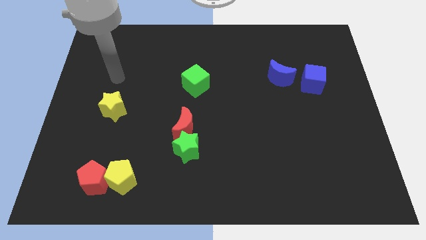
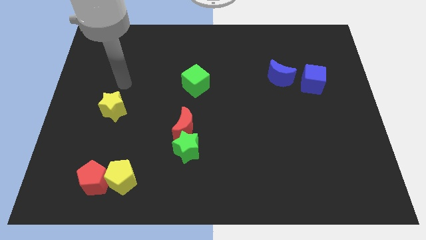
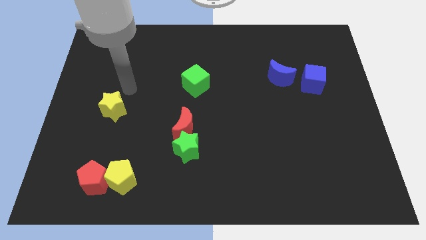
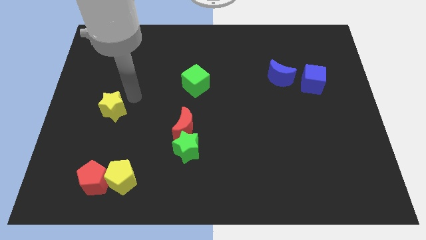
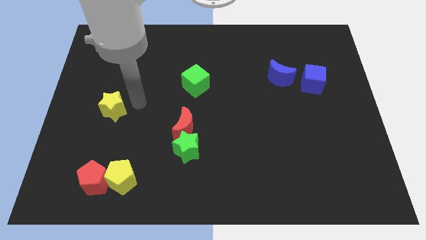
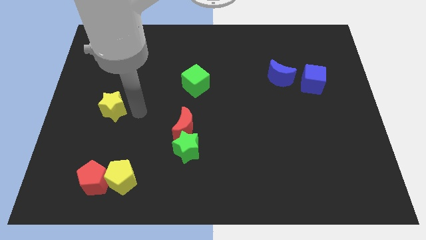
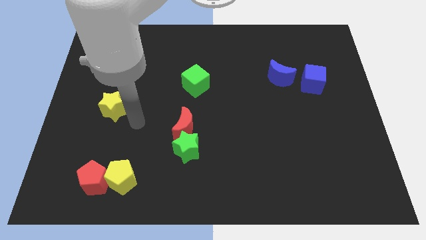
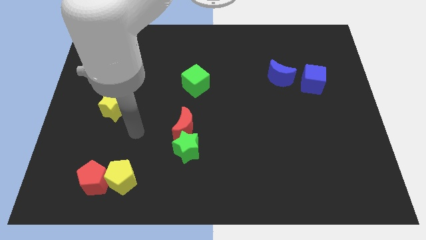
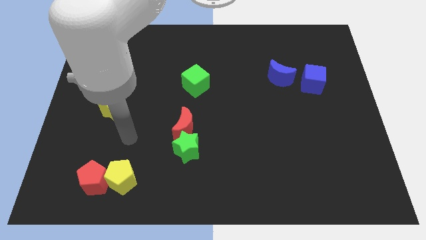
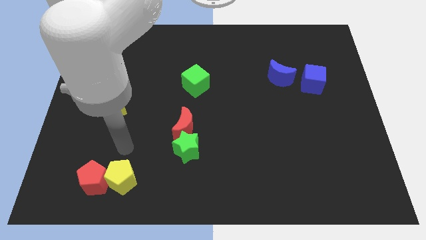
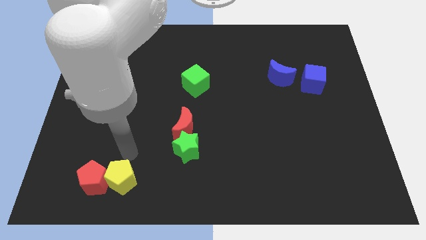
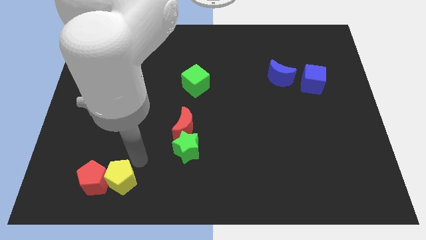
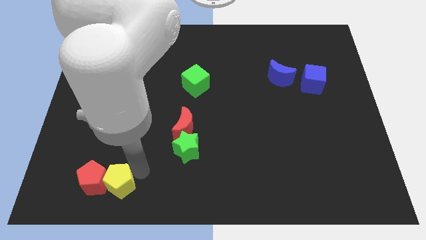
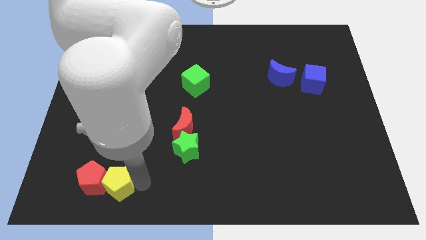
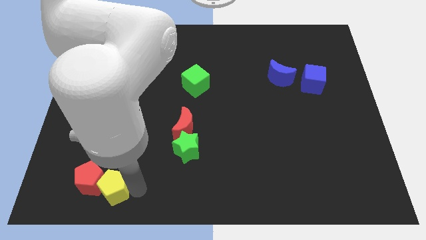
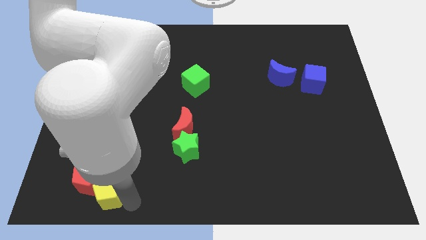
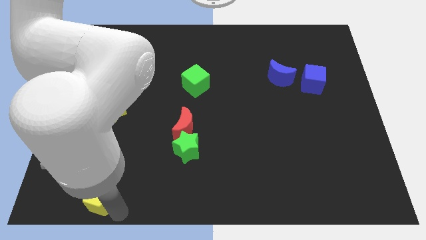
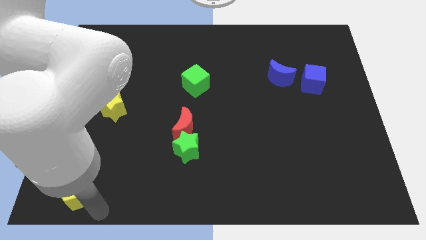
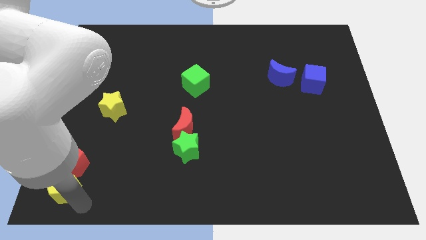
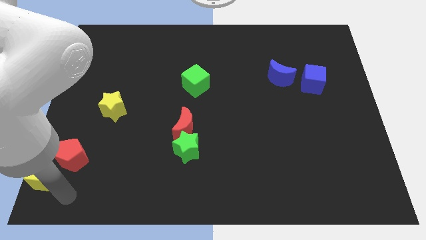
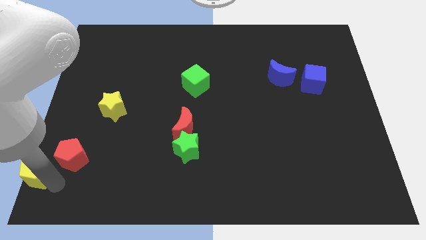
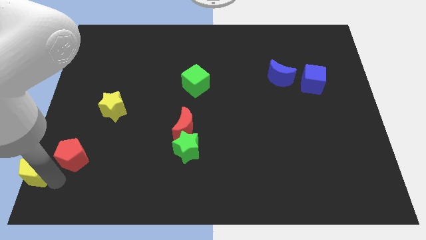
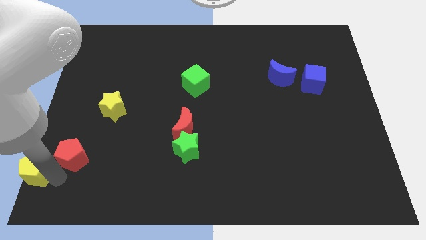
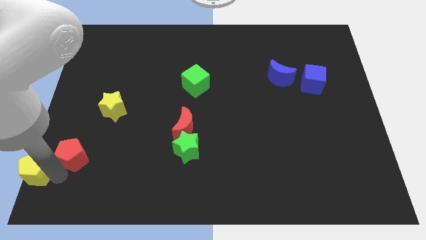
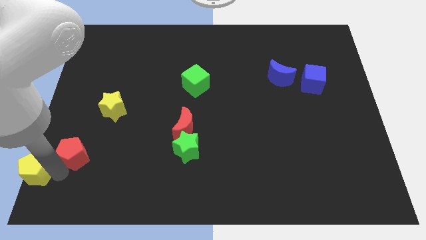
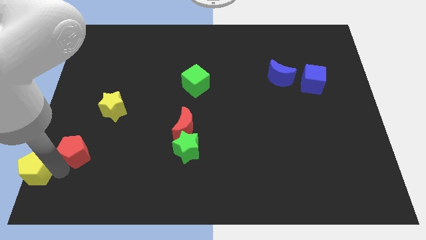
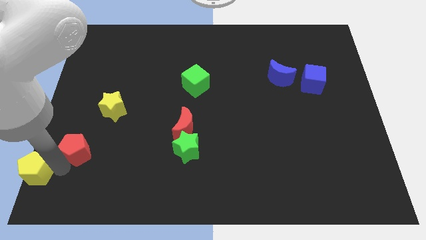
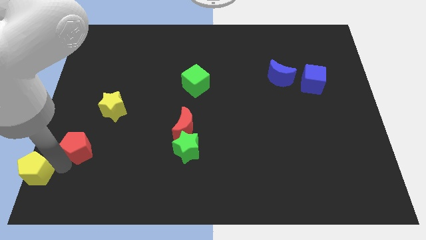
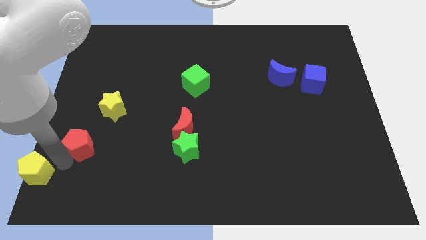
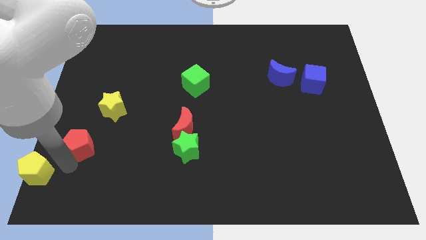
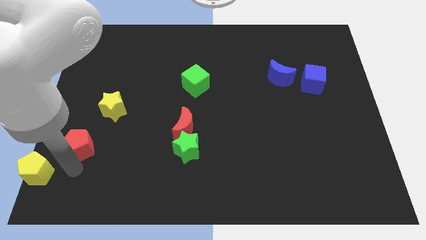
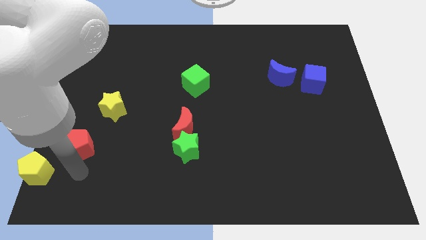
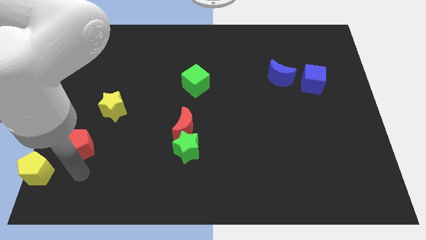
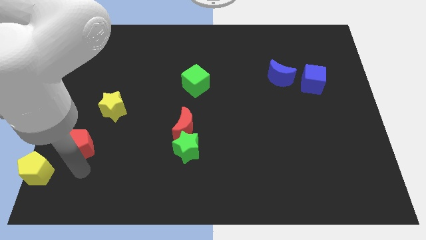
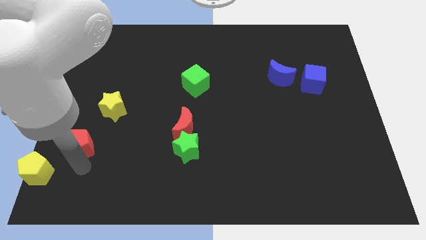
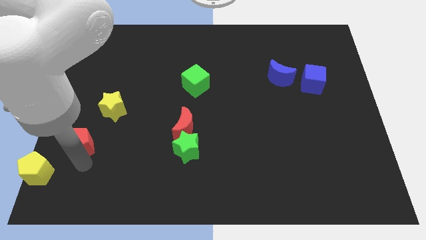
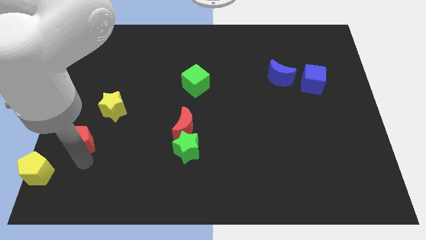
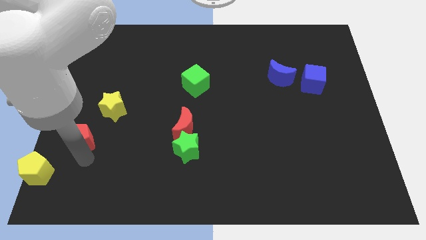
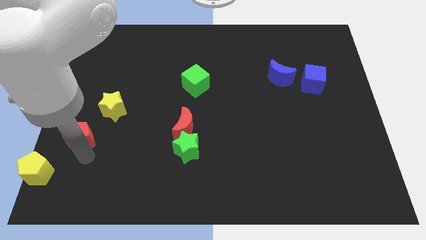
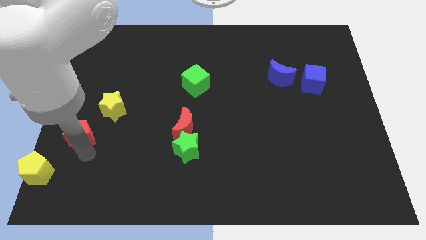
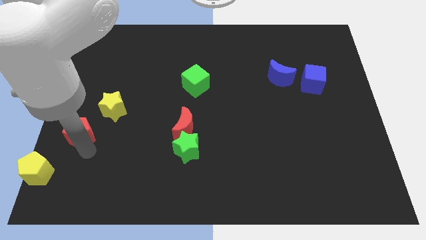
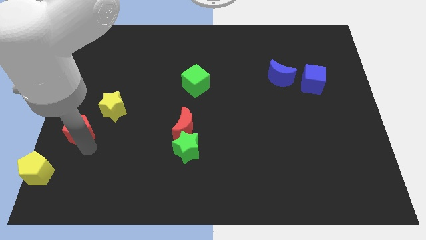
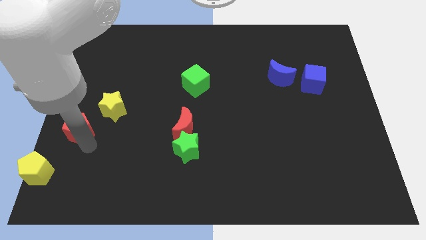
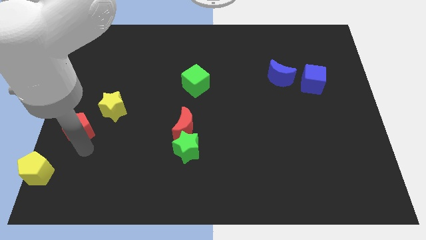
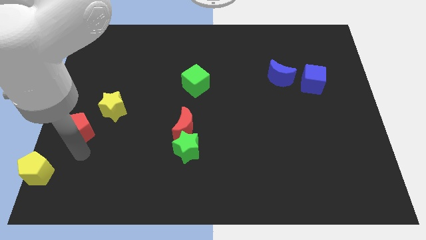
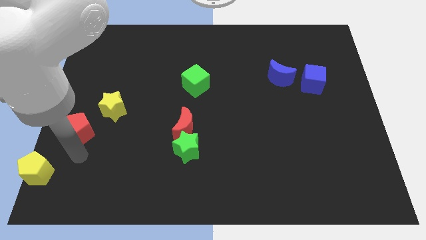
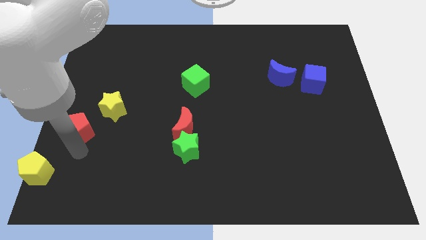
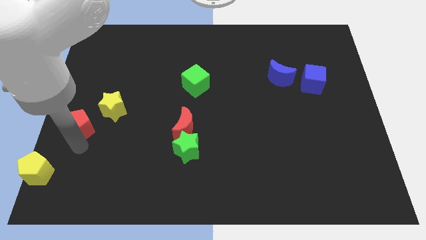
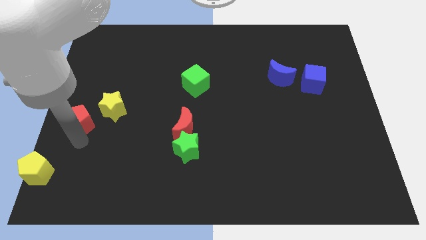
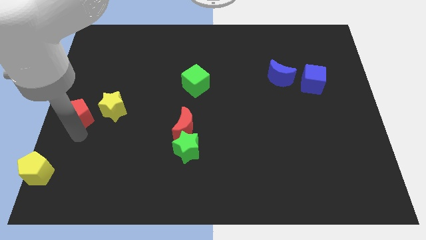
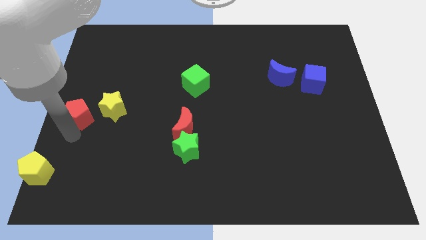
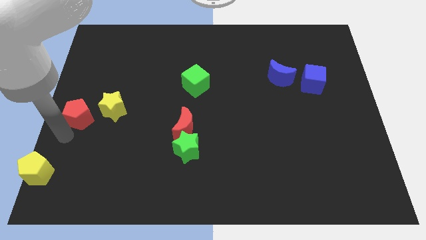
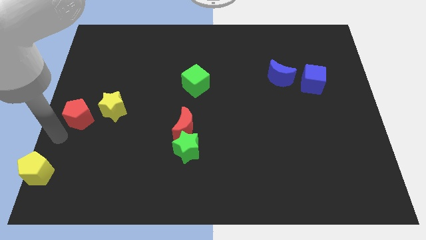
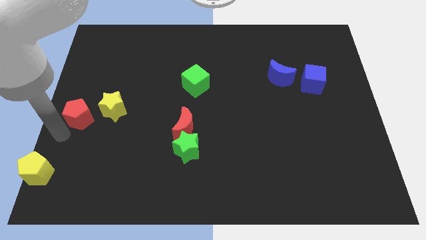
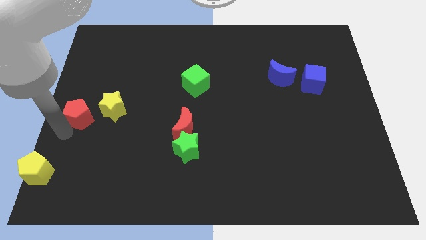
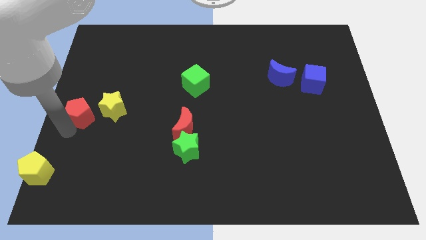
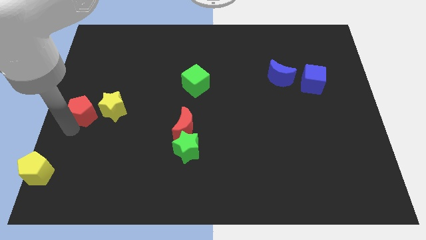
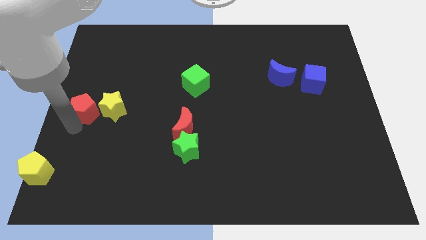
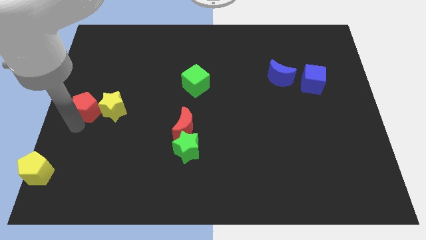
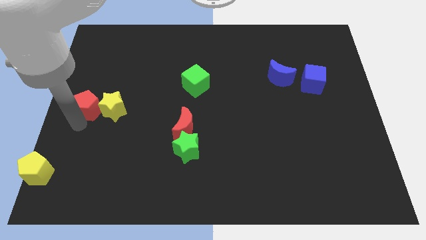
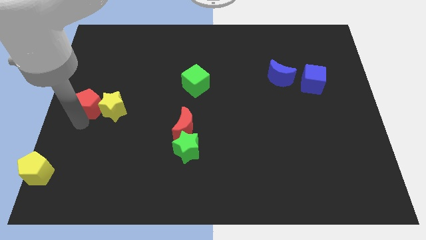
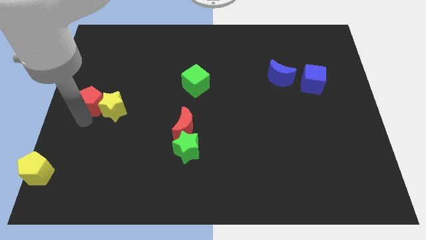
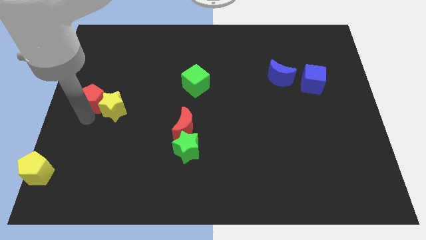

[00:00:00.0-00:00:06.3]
slide the red pentagon up

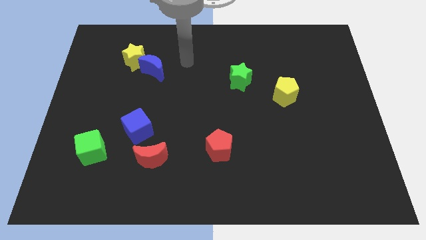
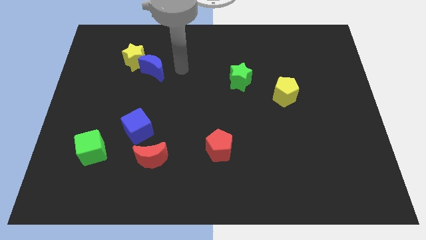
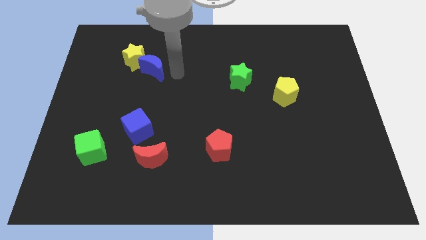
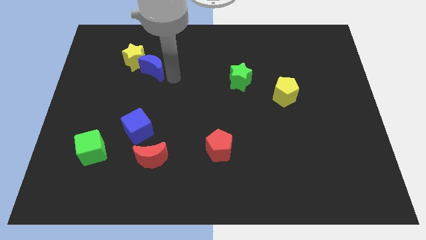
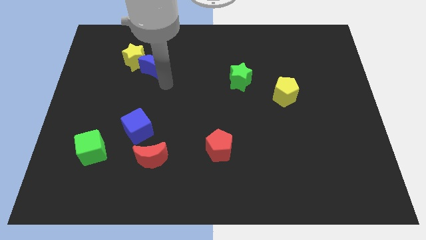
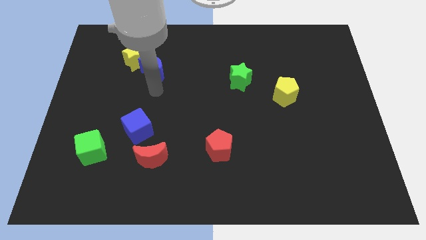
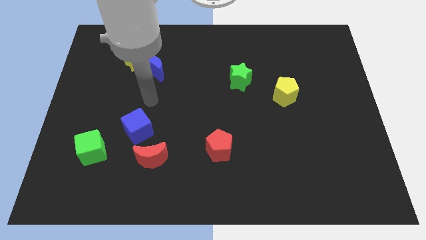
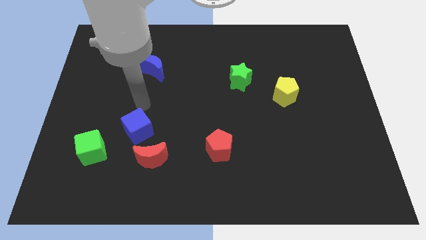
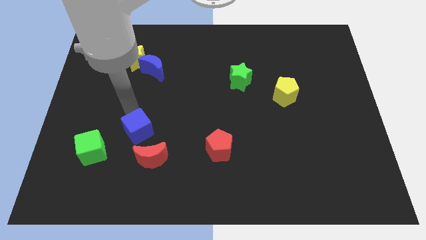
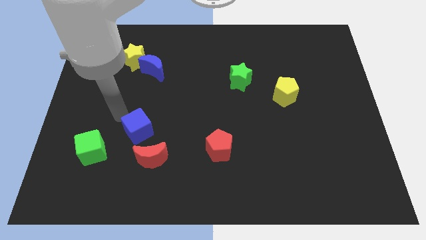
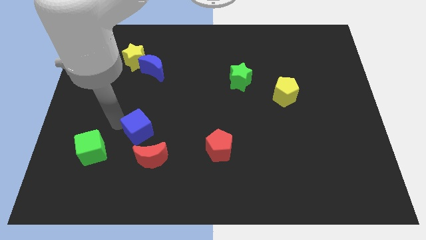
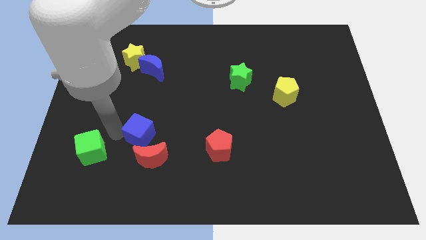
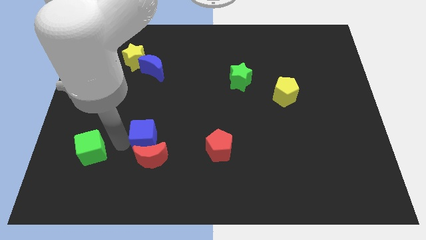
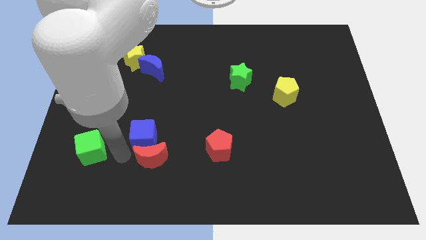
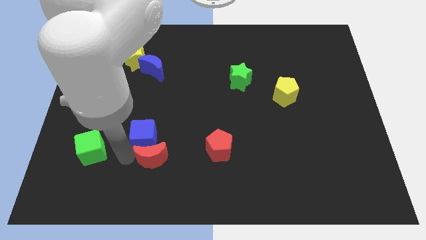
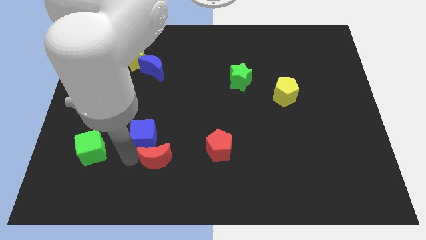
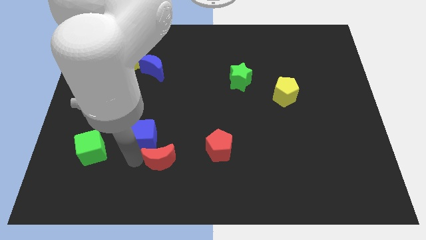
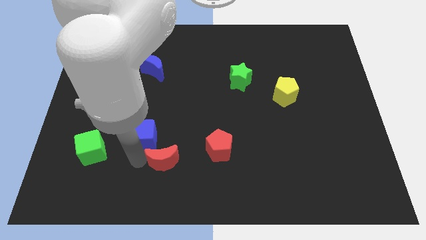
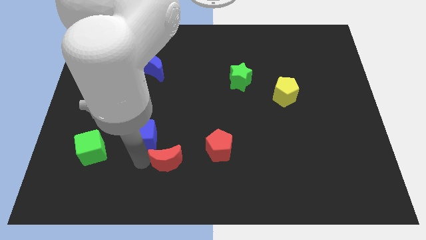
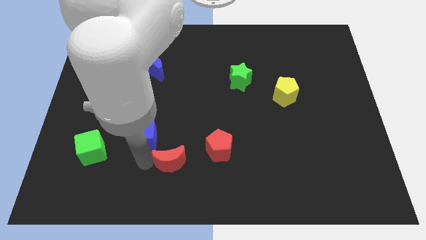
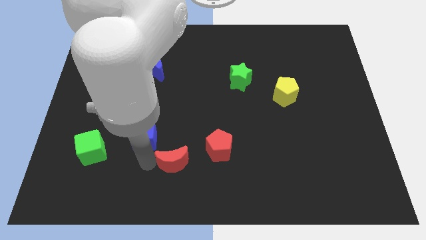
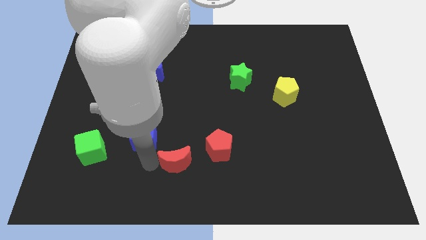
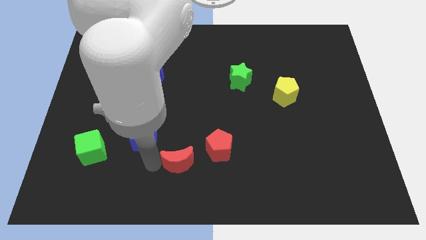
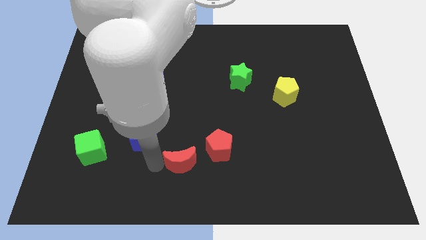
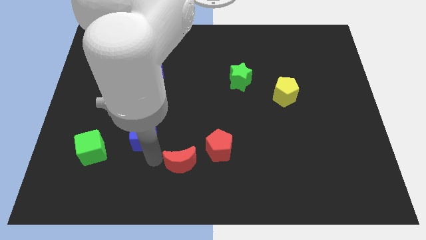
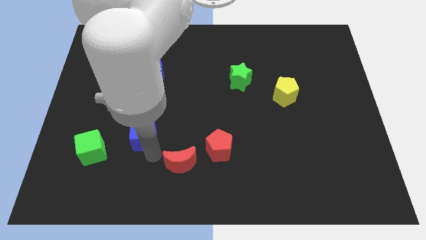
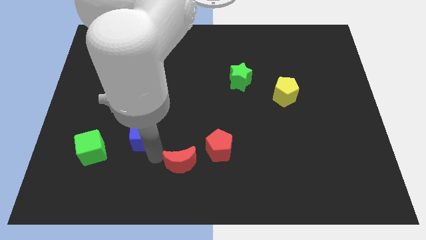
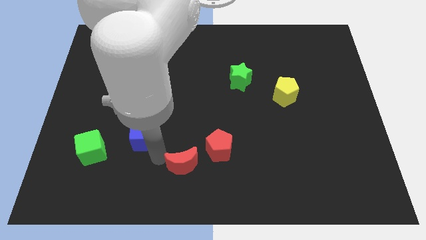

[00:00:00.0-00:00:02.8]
push the red moon a little right
